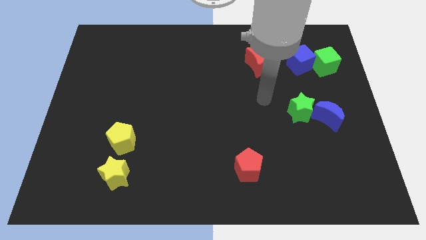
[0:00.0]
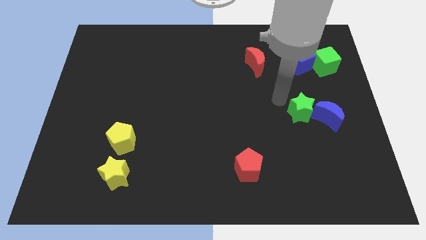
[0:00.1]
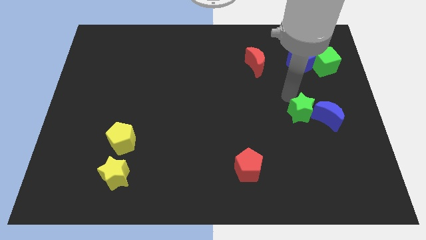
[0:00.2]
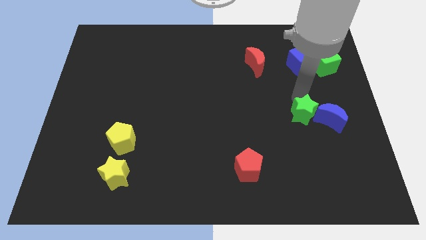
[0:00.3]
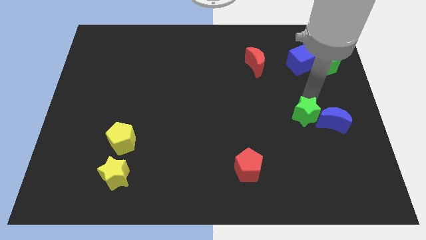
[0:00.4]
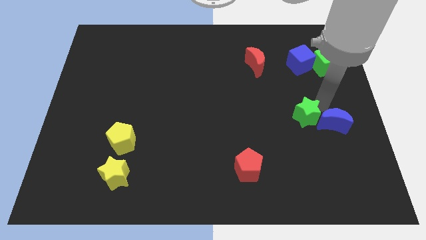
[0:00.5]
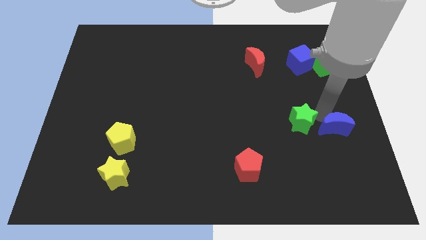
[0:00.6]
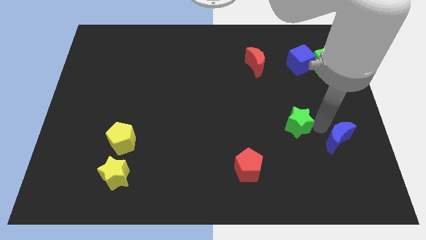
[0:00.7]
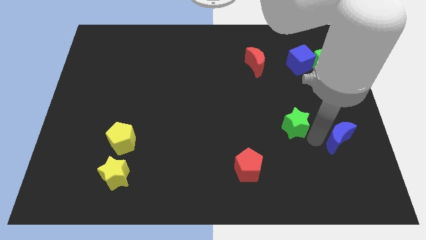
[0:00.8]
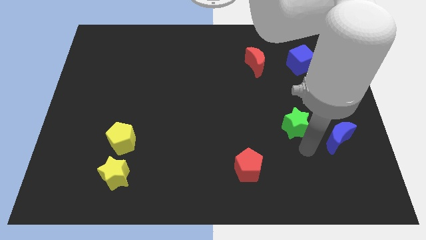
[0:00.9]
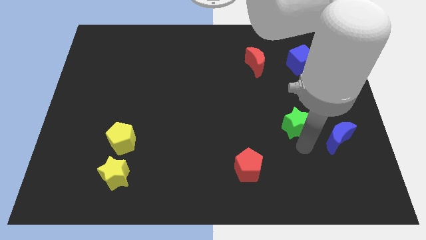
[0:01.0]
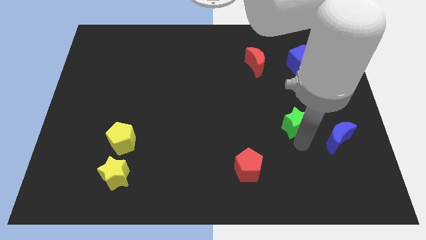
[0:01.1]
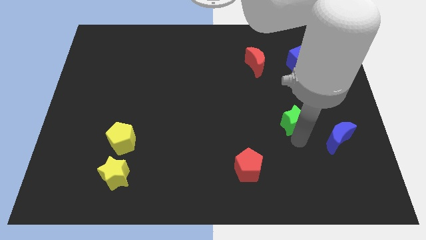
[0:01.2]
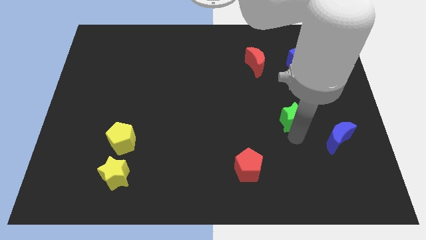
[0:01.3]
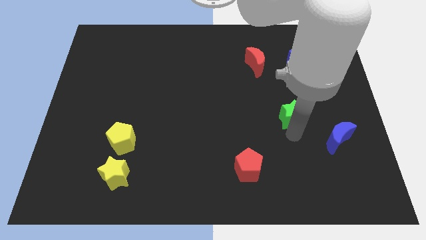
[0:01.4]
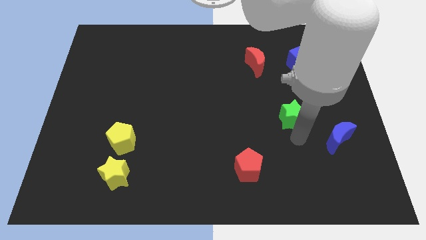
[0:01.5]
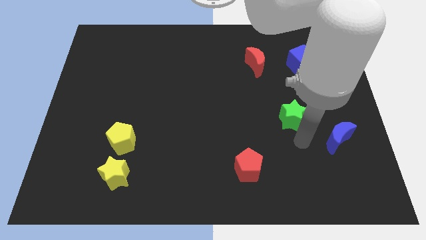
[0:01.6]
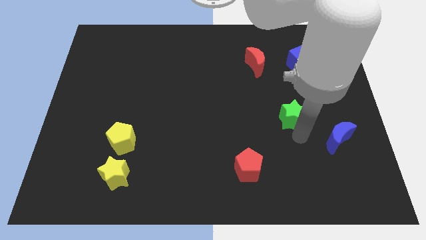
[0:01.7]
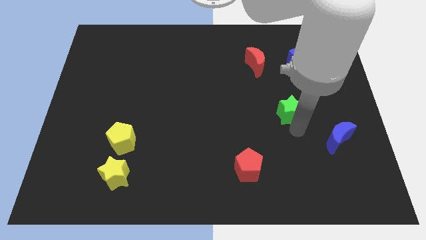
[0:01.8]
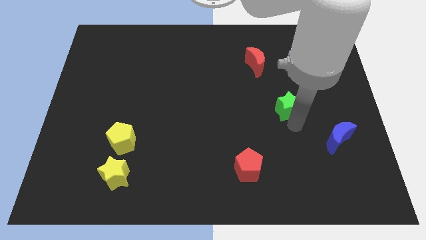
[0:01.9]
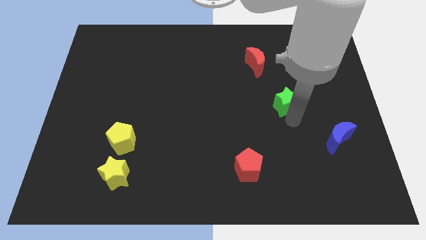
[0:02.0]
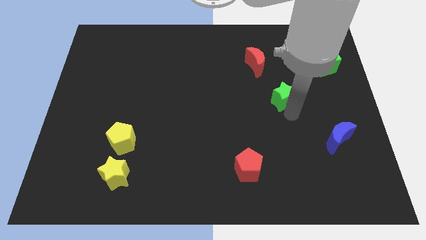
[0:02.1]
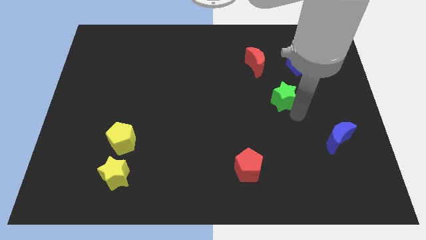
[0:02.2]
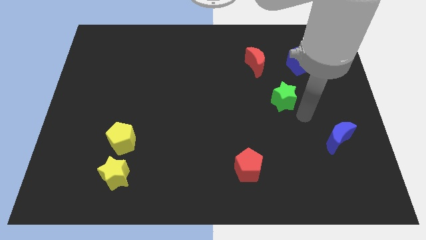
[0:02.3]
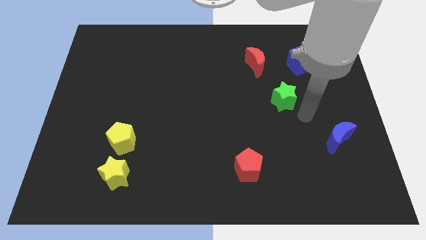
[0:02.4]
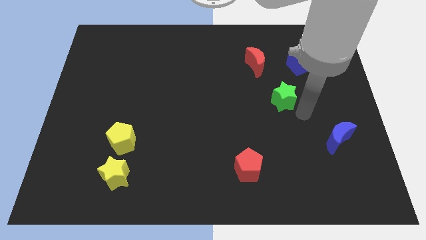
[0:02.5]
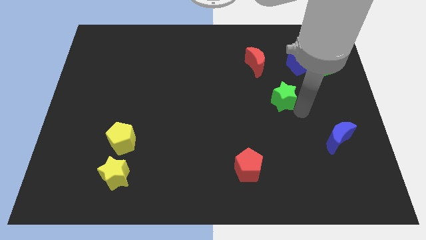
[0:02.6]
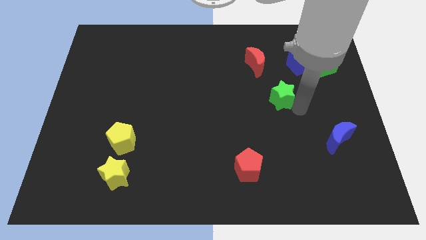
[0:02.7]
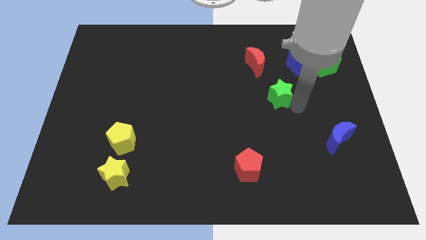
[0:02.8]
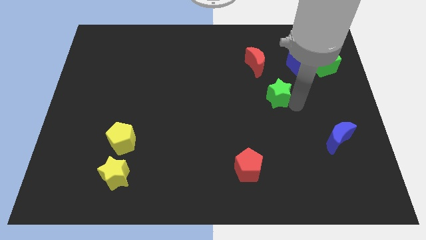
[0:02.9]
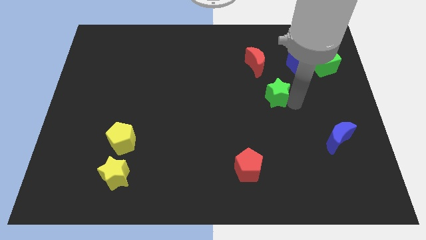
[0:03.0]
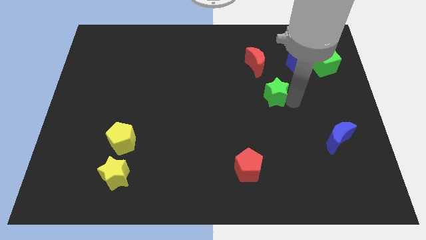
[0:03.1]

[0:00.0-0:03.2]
slightly move the green star upwards and to the left diagonally

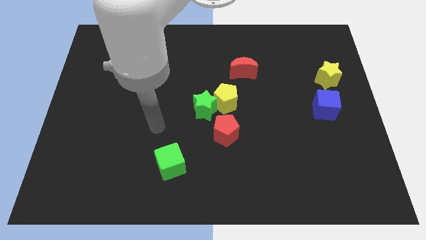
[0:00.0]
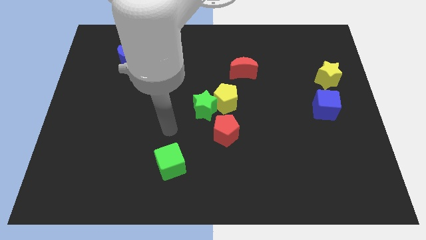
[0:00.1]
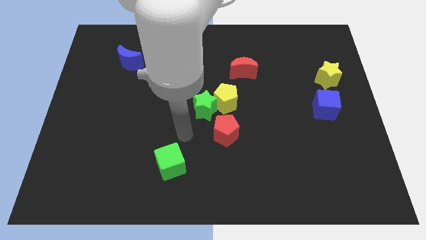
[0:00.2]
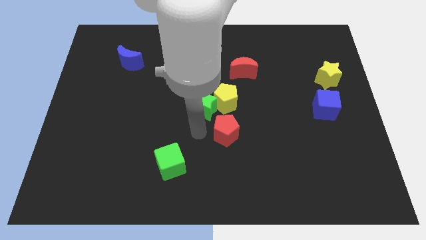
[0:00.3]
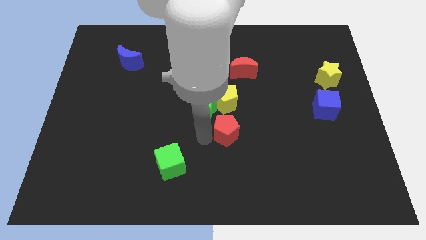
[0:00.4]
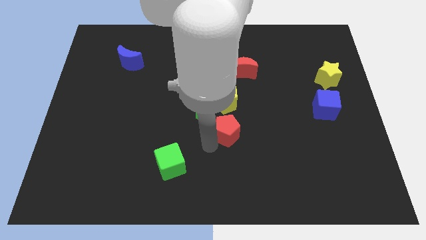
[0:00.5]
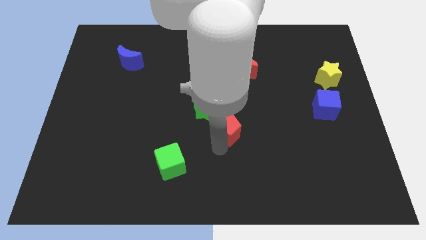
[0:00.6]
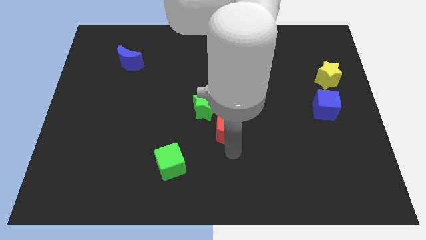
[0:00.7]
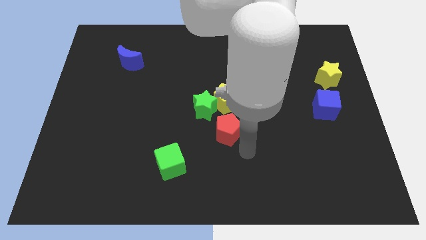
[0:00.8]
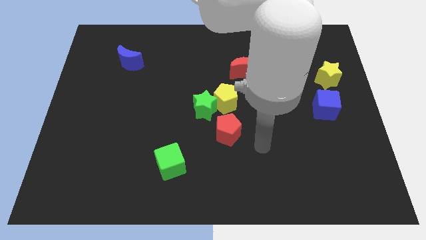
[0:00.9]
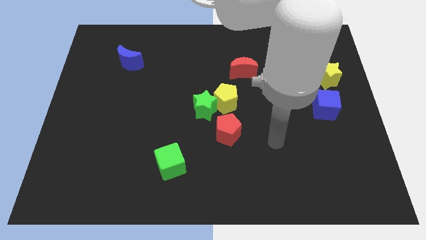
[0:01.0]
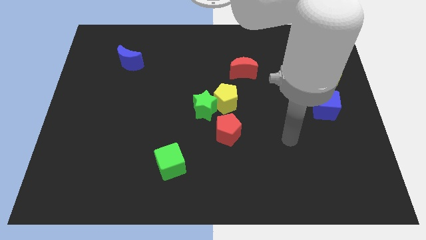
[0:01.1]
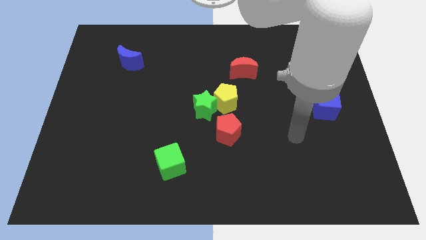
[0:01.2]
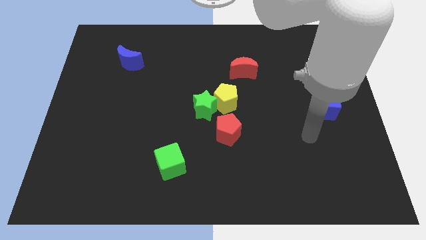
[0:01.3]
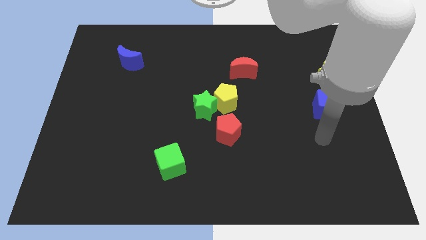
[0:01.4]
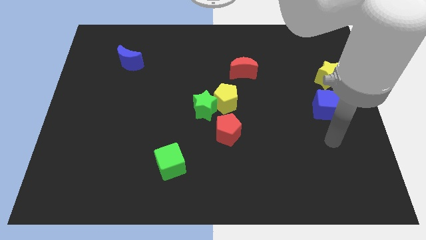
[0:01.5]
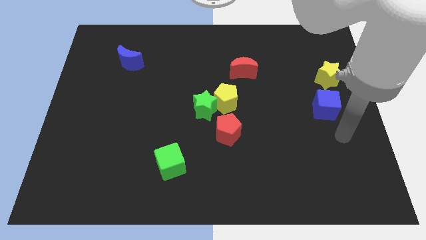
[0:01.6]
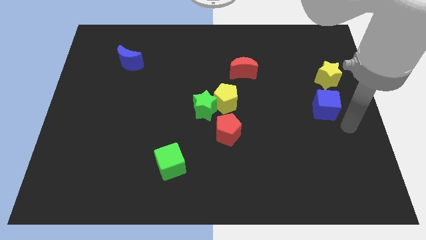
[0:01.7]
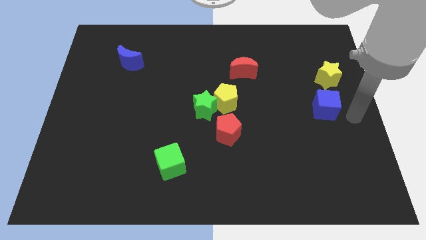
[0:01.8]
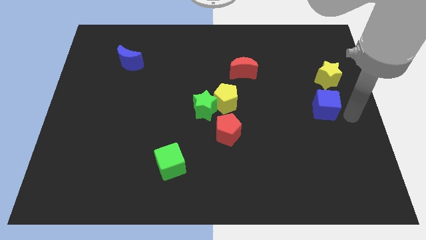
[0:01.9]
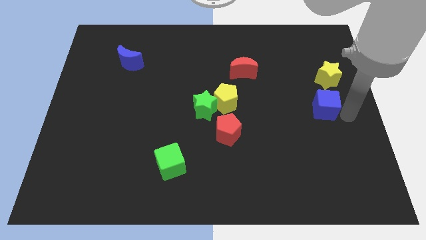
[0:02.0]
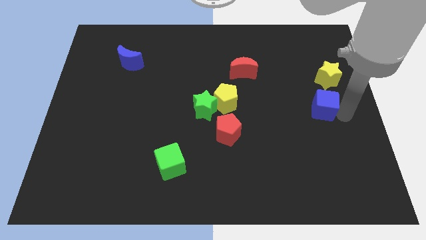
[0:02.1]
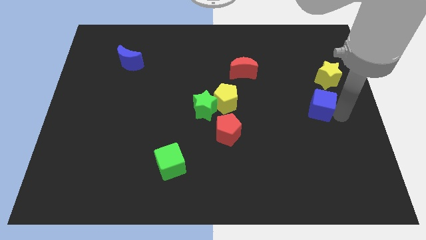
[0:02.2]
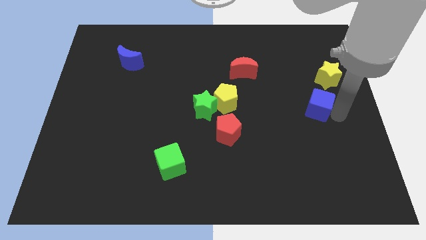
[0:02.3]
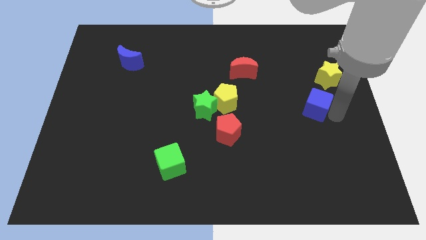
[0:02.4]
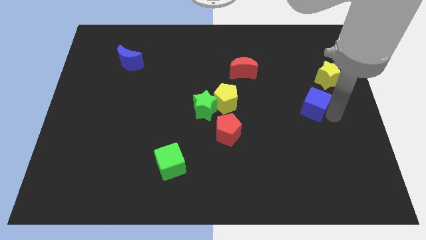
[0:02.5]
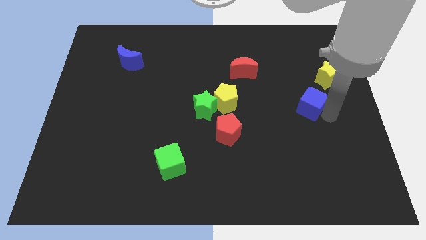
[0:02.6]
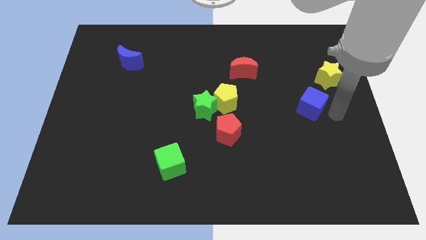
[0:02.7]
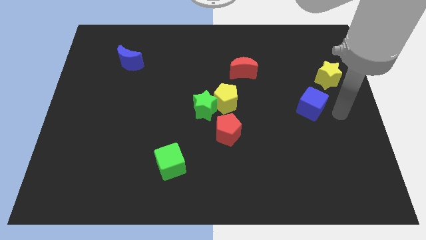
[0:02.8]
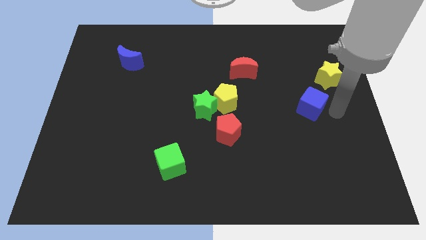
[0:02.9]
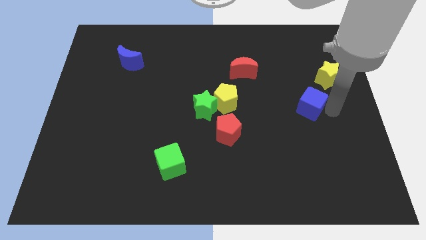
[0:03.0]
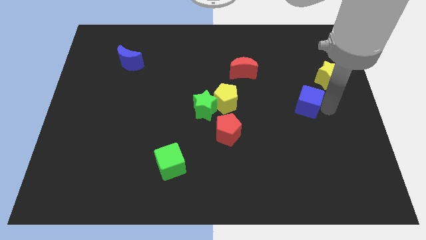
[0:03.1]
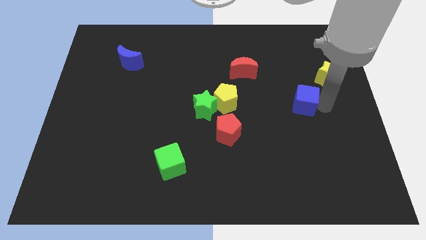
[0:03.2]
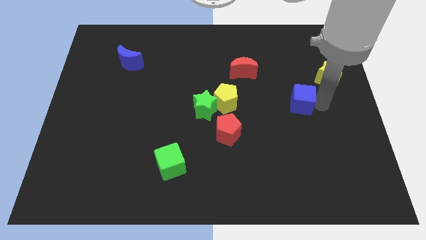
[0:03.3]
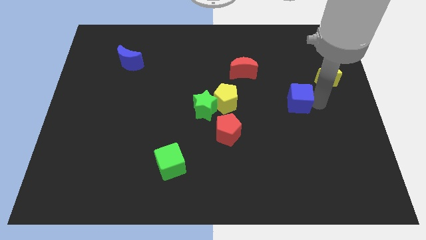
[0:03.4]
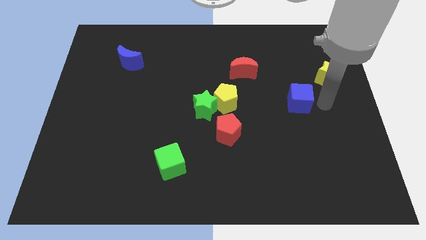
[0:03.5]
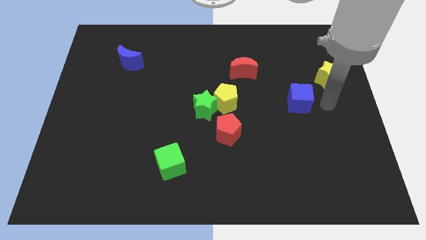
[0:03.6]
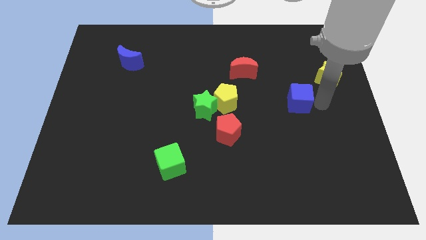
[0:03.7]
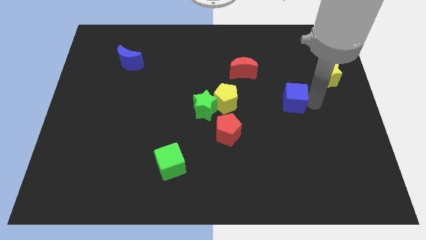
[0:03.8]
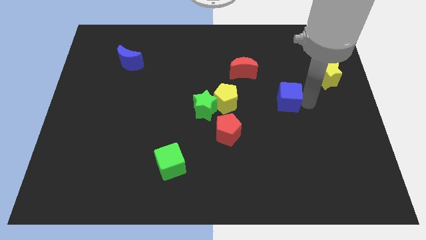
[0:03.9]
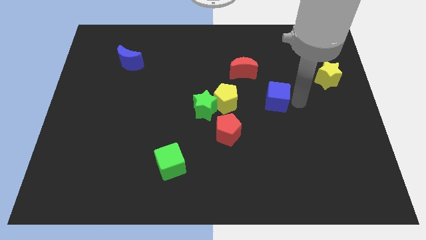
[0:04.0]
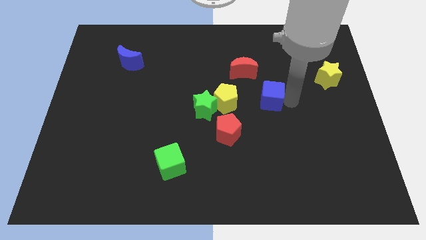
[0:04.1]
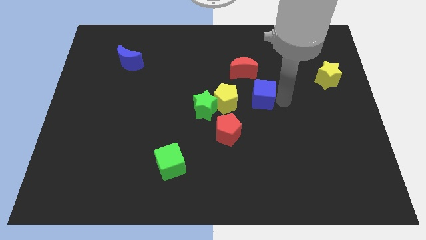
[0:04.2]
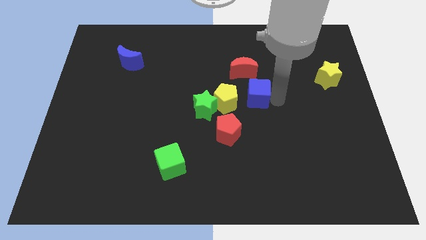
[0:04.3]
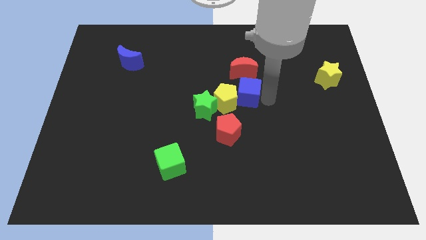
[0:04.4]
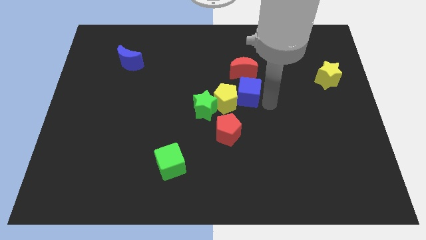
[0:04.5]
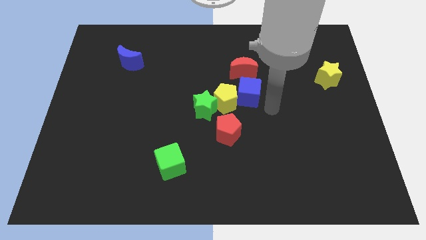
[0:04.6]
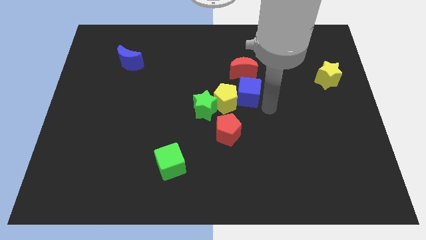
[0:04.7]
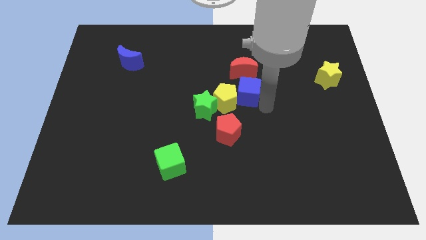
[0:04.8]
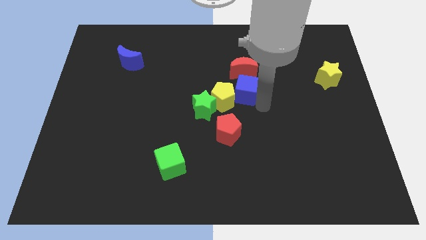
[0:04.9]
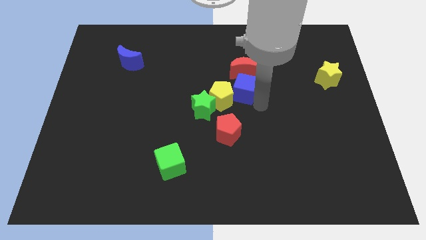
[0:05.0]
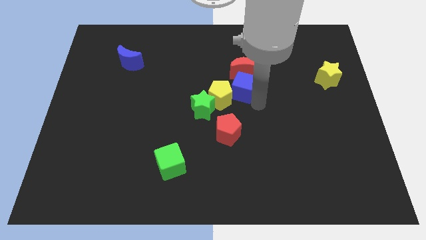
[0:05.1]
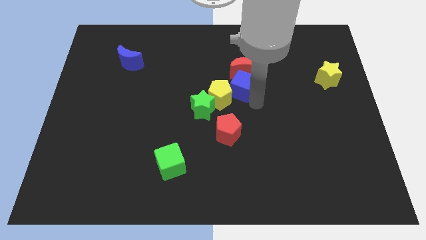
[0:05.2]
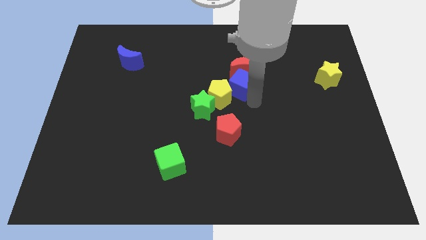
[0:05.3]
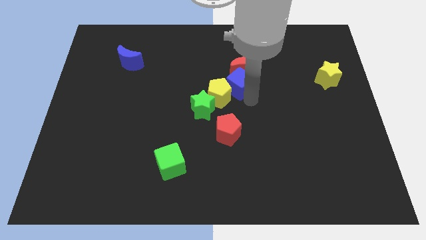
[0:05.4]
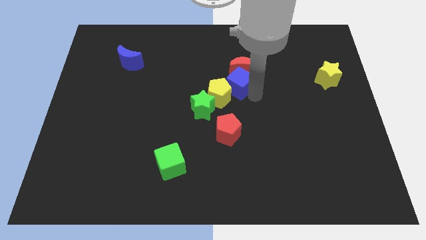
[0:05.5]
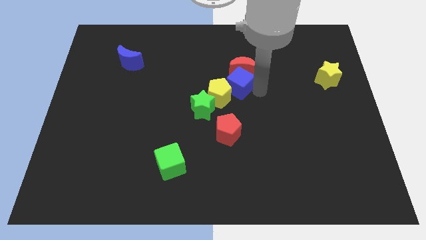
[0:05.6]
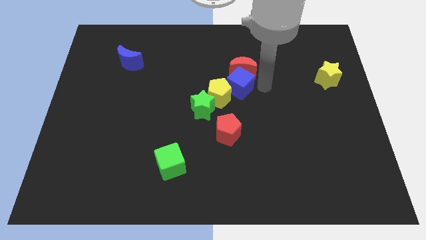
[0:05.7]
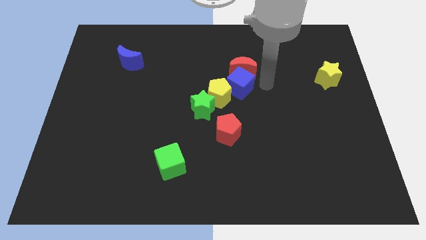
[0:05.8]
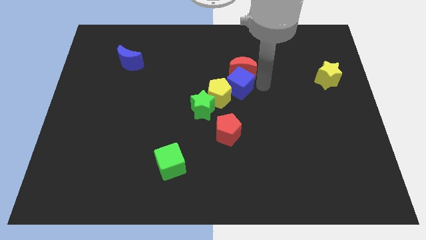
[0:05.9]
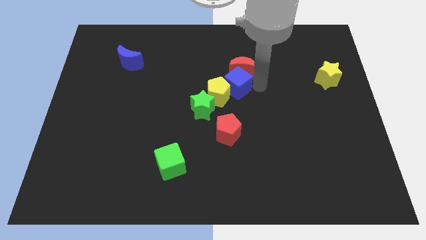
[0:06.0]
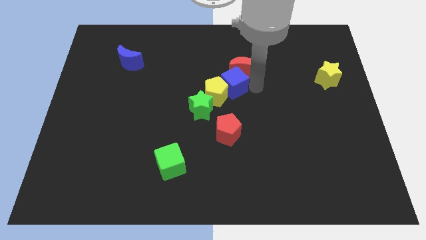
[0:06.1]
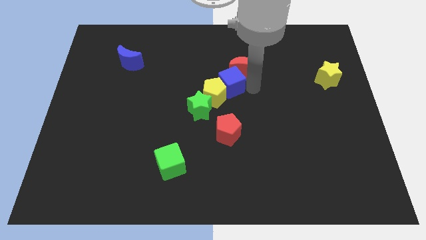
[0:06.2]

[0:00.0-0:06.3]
move the blue cube left
